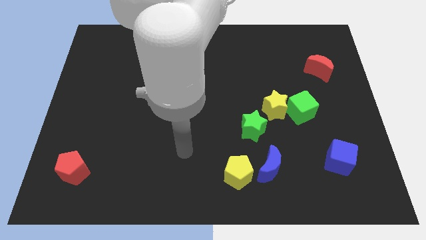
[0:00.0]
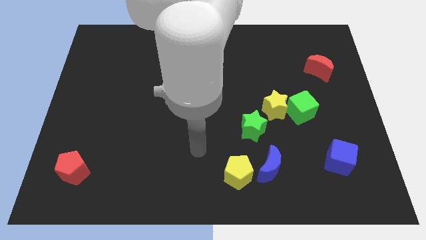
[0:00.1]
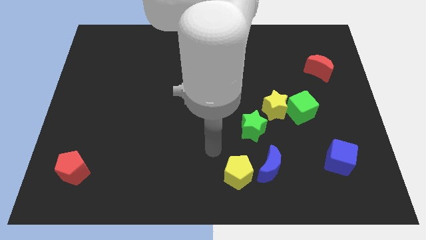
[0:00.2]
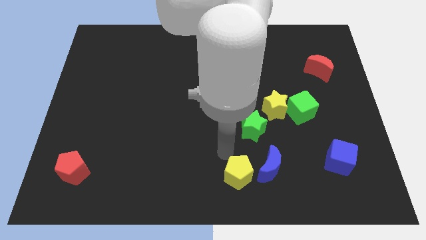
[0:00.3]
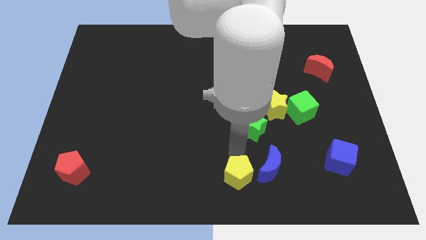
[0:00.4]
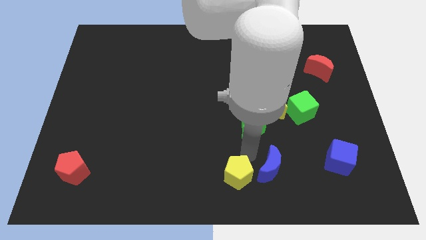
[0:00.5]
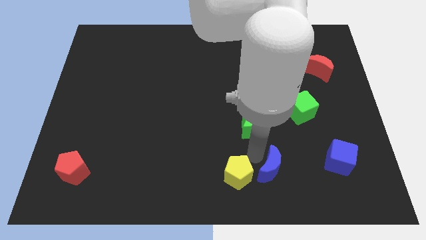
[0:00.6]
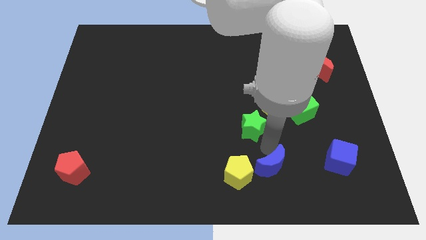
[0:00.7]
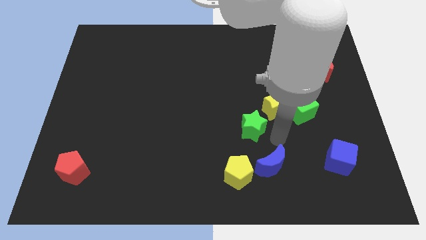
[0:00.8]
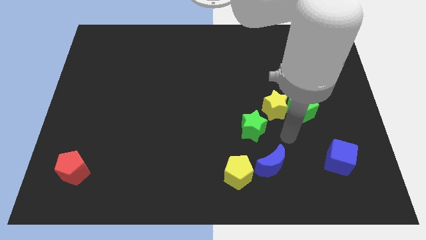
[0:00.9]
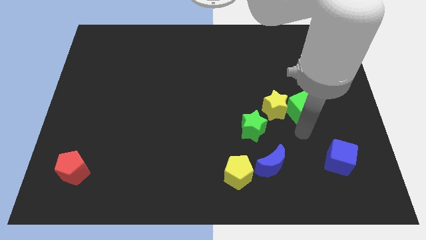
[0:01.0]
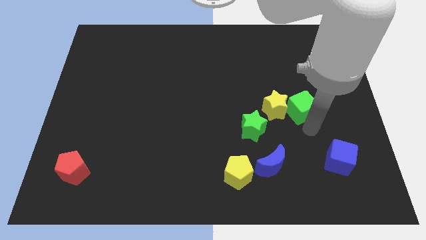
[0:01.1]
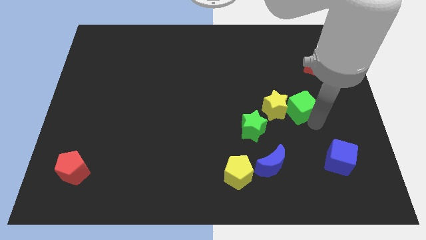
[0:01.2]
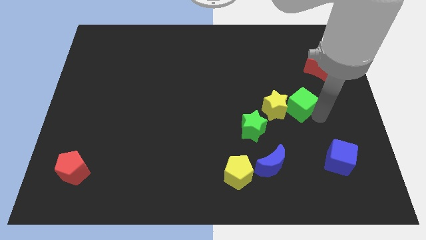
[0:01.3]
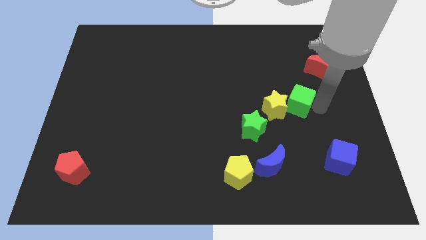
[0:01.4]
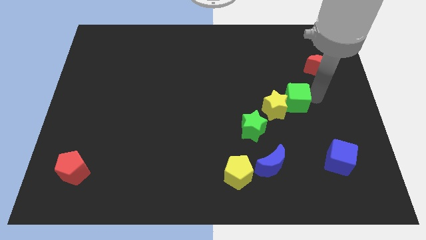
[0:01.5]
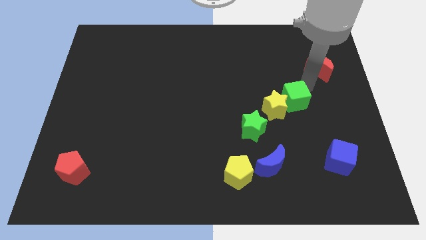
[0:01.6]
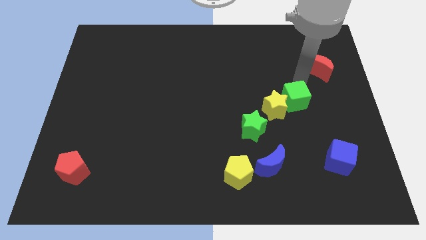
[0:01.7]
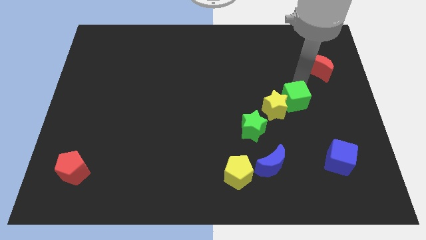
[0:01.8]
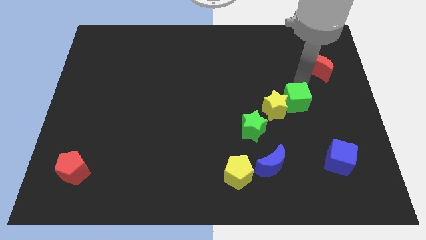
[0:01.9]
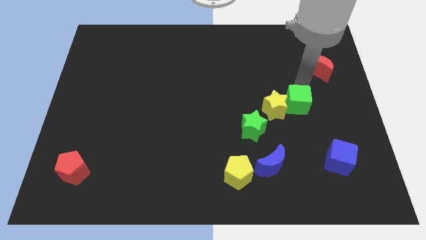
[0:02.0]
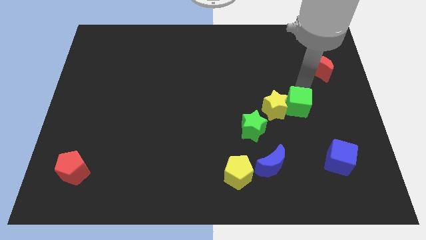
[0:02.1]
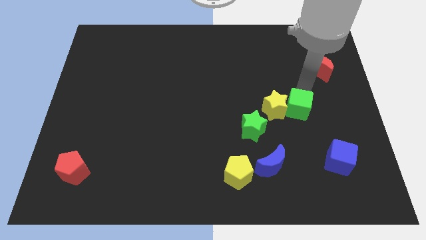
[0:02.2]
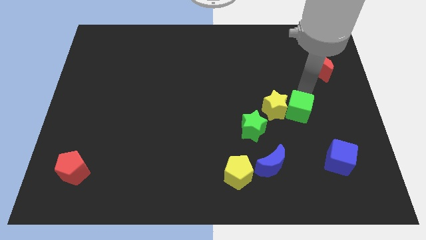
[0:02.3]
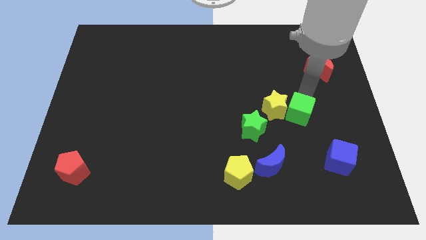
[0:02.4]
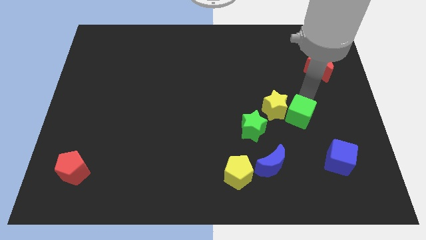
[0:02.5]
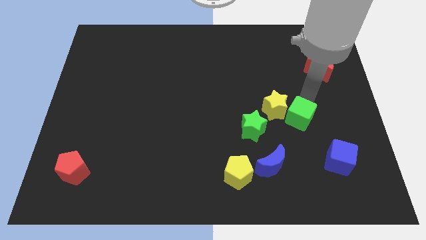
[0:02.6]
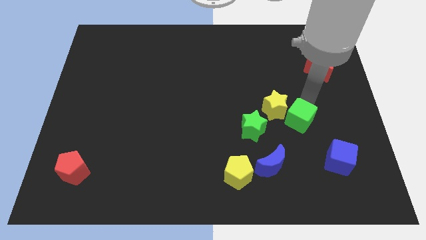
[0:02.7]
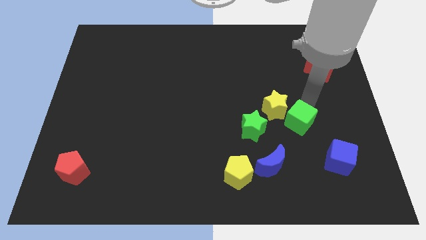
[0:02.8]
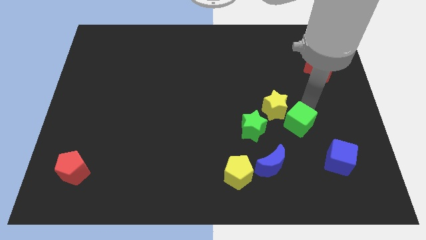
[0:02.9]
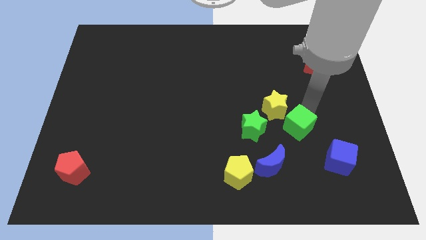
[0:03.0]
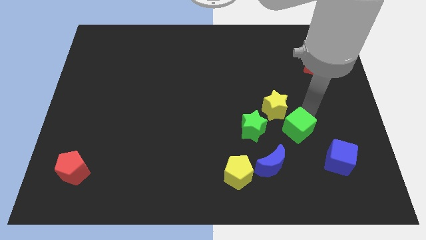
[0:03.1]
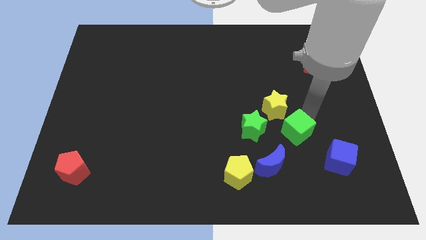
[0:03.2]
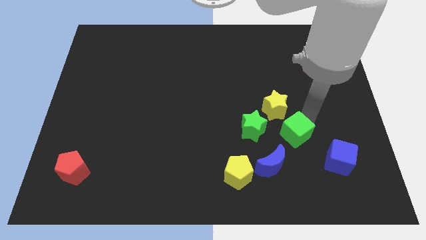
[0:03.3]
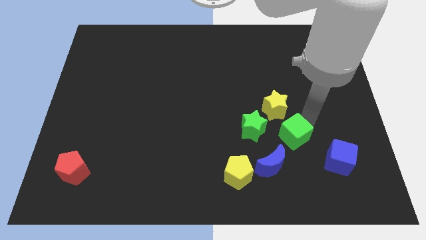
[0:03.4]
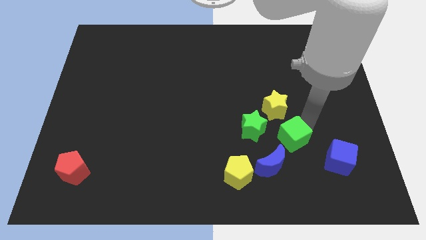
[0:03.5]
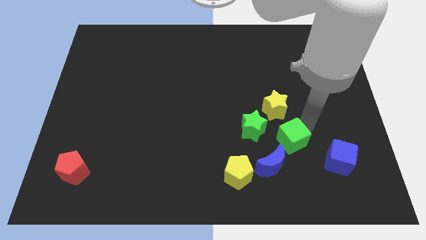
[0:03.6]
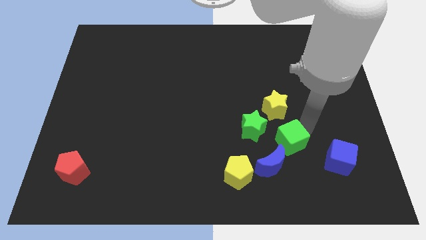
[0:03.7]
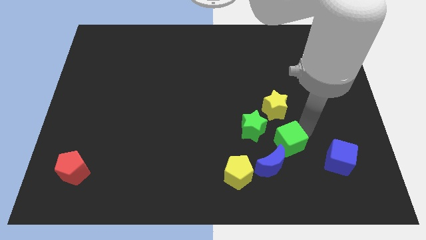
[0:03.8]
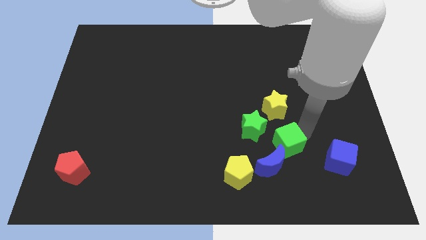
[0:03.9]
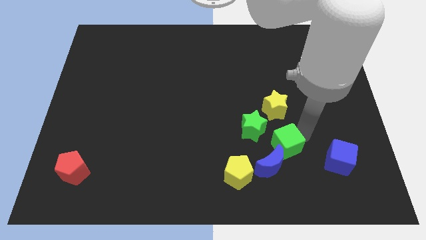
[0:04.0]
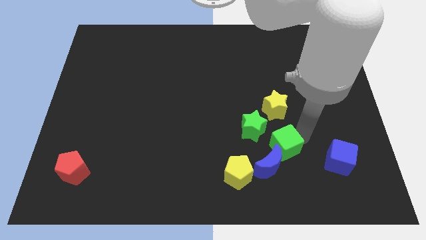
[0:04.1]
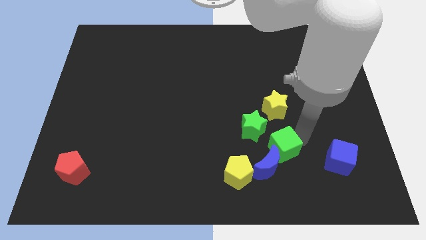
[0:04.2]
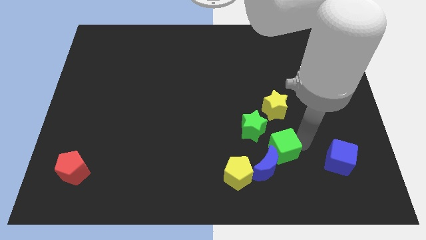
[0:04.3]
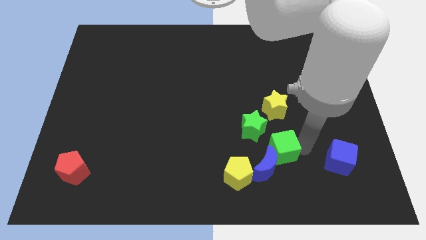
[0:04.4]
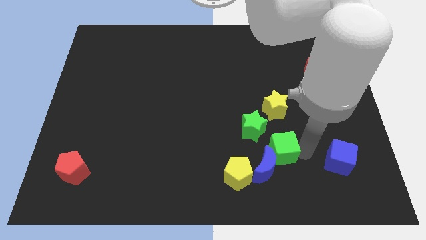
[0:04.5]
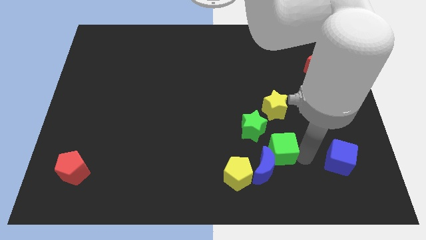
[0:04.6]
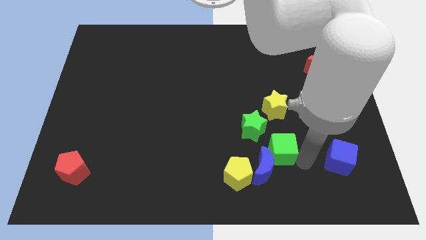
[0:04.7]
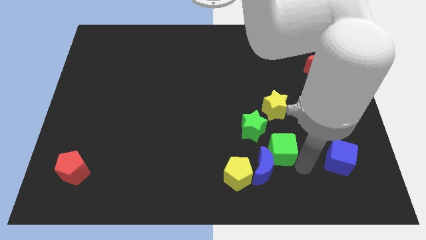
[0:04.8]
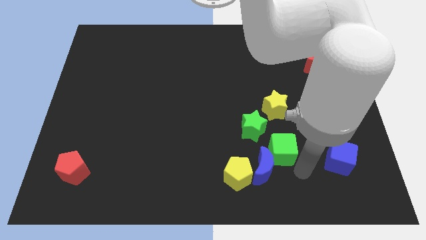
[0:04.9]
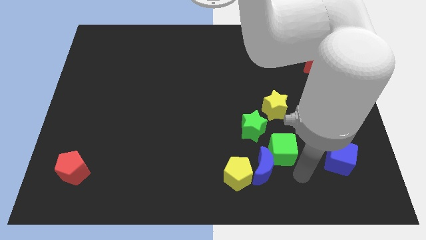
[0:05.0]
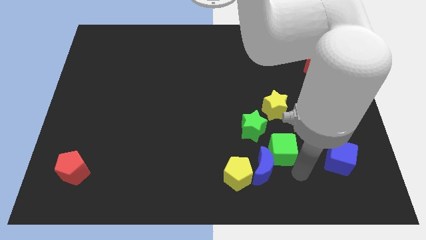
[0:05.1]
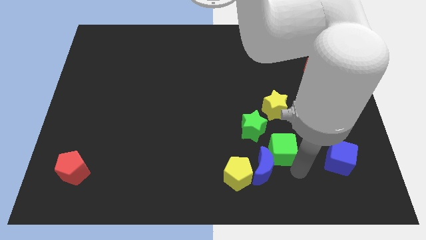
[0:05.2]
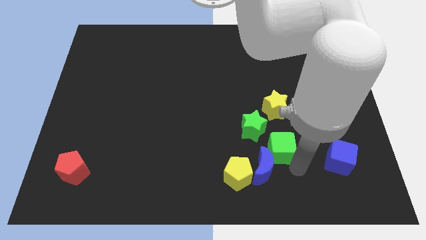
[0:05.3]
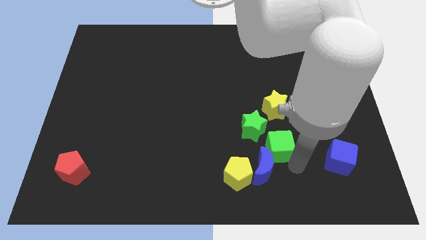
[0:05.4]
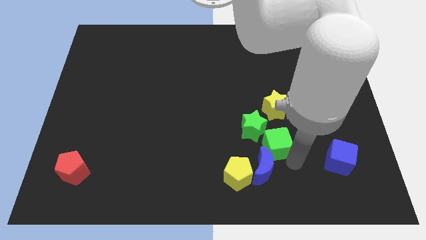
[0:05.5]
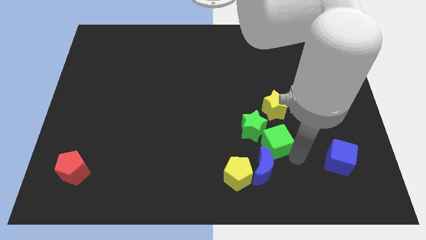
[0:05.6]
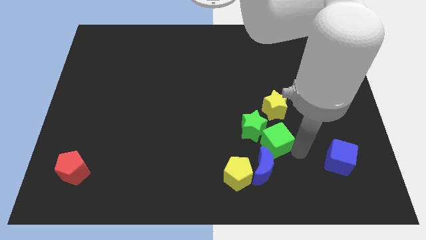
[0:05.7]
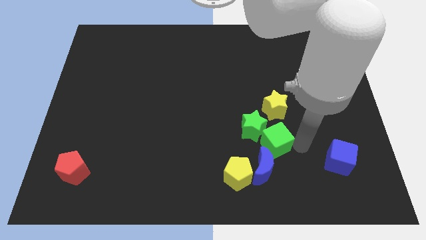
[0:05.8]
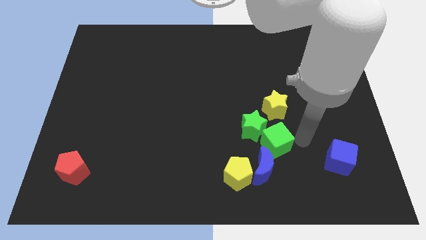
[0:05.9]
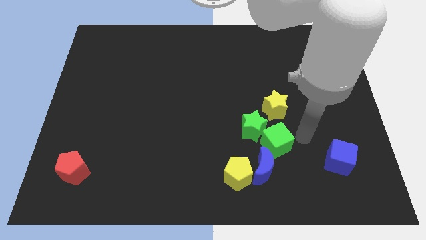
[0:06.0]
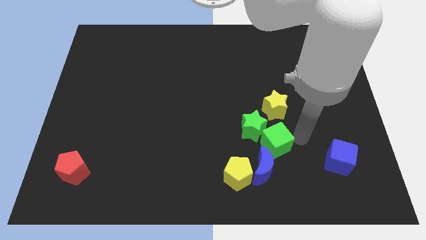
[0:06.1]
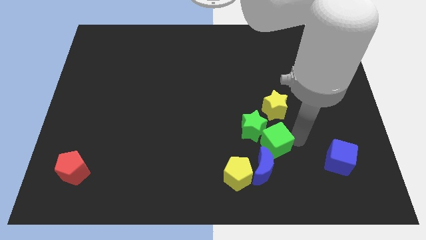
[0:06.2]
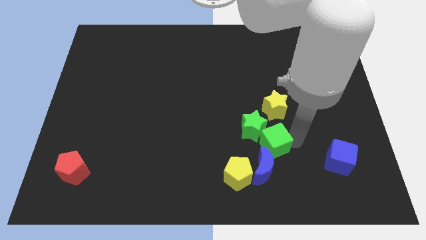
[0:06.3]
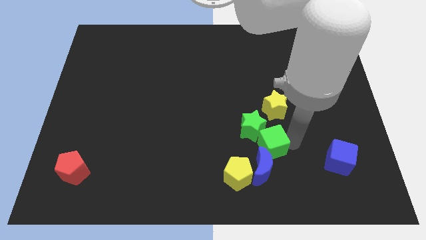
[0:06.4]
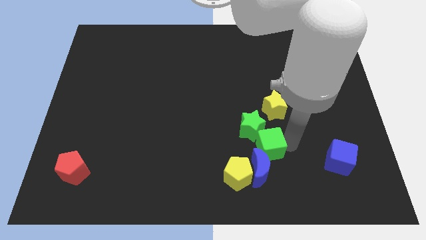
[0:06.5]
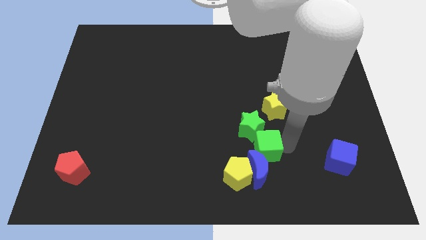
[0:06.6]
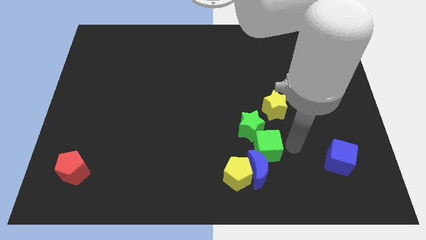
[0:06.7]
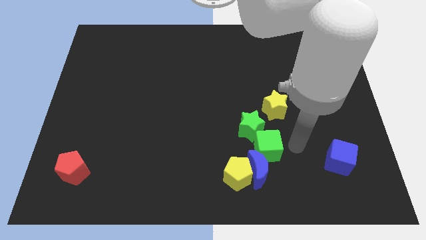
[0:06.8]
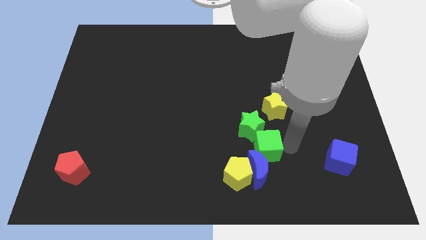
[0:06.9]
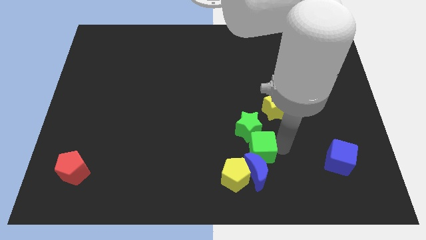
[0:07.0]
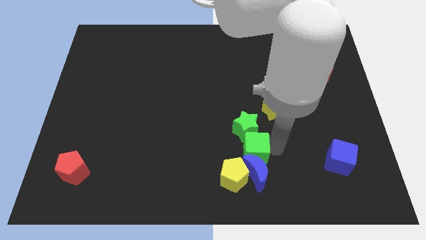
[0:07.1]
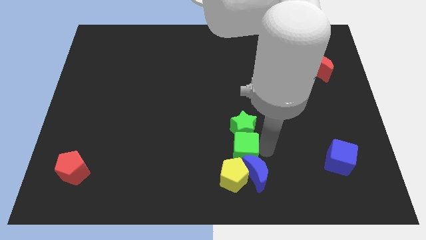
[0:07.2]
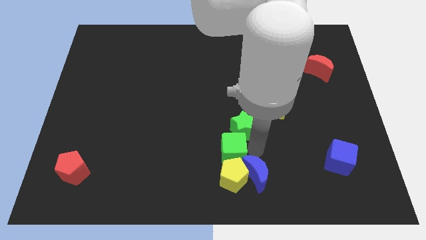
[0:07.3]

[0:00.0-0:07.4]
put the green cube to the top left side of the yellow pentagon
